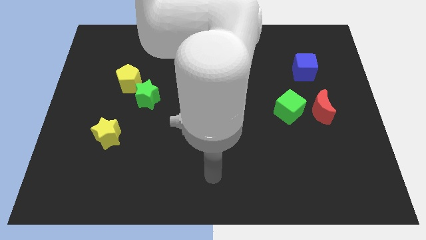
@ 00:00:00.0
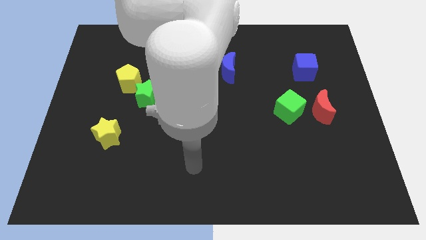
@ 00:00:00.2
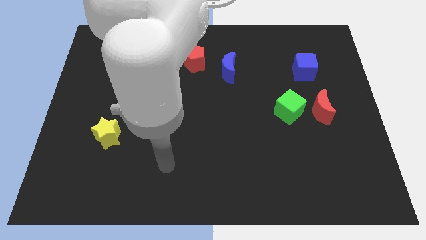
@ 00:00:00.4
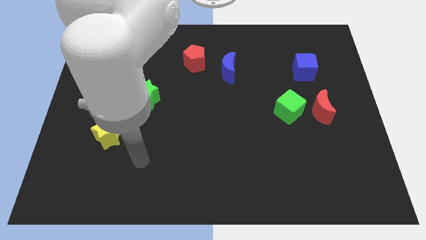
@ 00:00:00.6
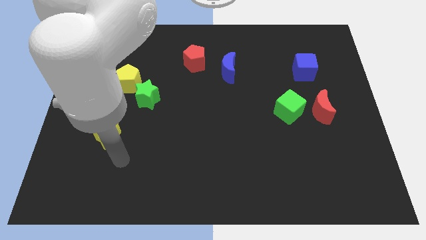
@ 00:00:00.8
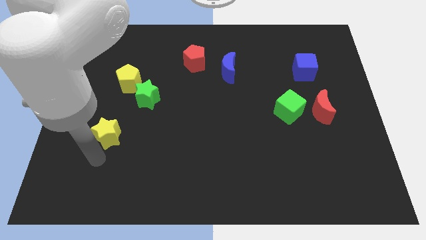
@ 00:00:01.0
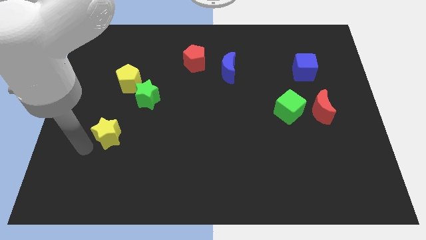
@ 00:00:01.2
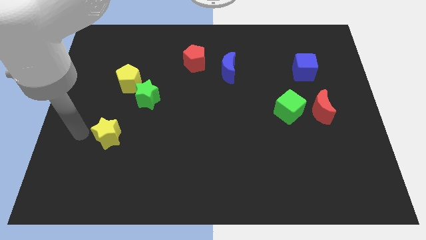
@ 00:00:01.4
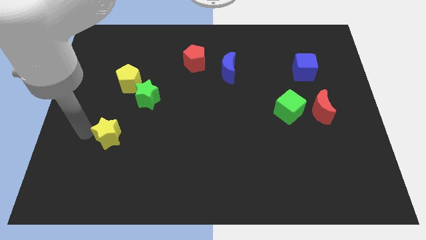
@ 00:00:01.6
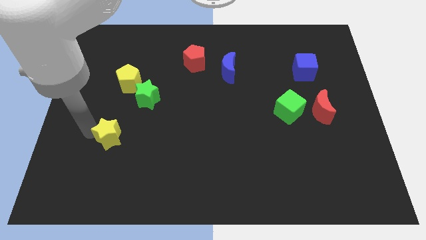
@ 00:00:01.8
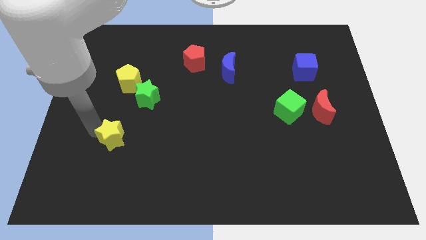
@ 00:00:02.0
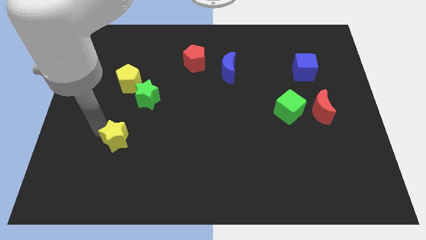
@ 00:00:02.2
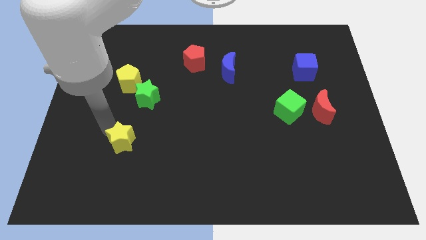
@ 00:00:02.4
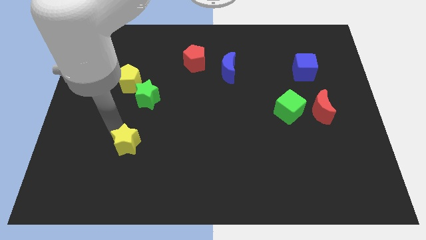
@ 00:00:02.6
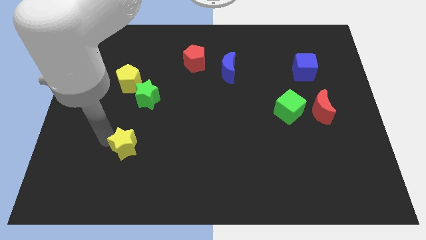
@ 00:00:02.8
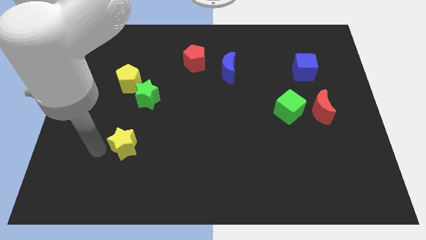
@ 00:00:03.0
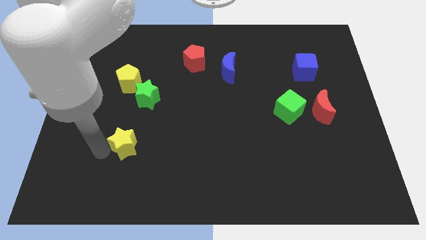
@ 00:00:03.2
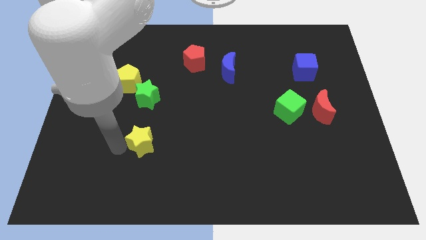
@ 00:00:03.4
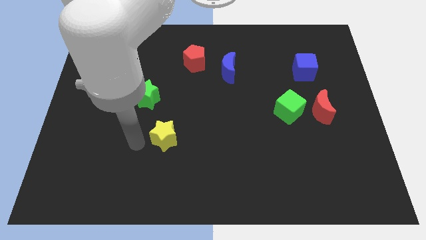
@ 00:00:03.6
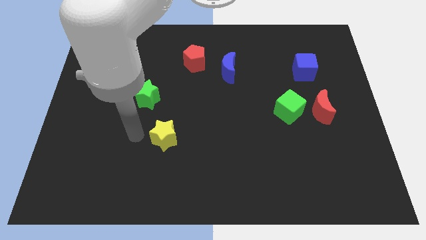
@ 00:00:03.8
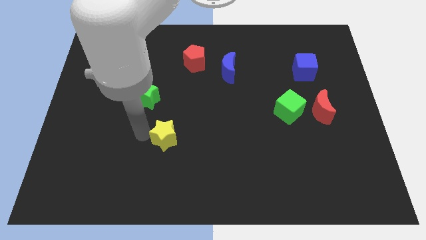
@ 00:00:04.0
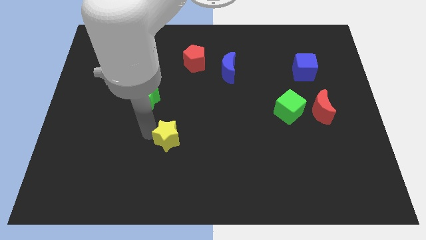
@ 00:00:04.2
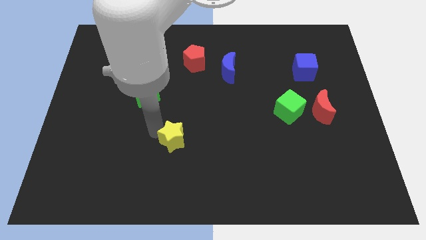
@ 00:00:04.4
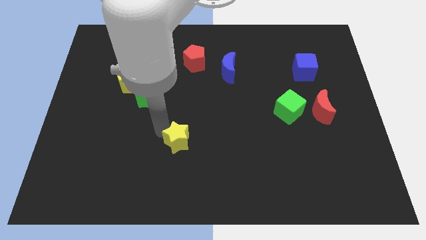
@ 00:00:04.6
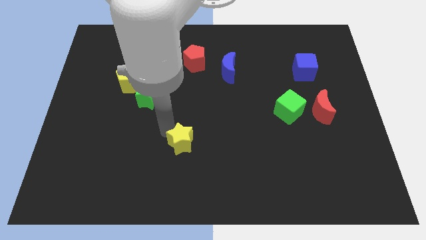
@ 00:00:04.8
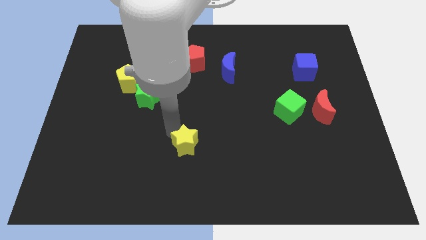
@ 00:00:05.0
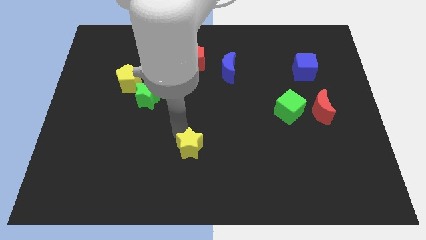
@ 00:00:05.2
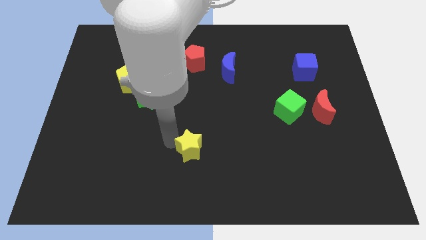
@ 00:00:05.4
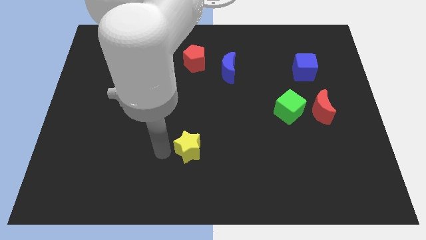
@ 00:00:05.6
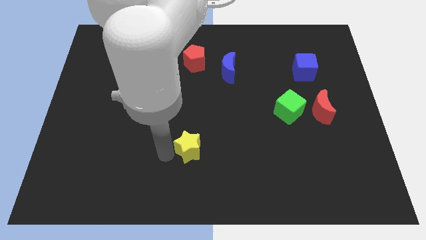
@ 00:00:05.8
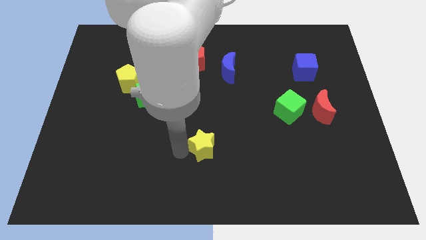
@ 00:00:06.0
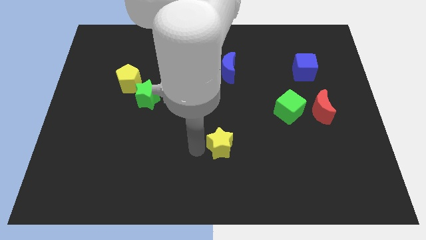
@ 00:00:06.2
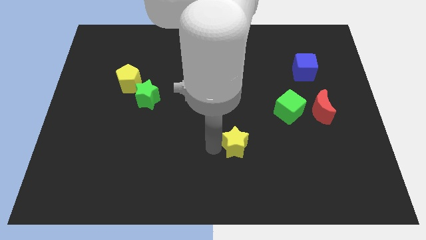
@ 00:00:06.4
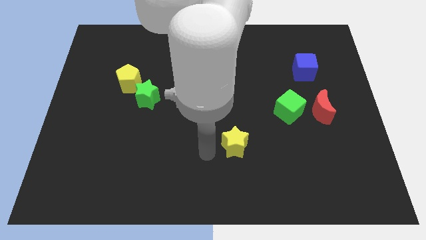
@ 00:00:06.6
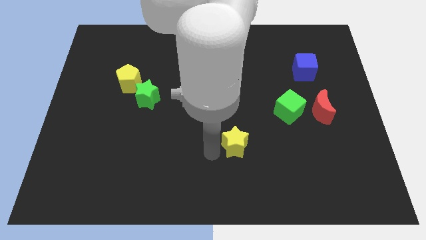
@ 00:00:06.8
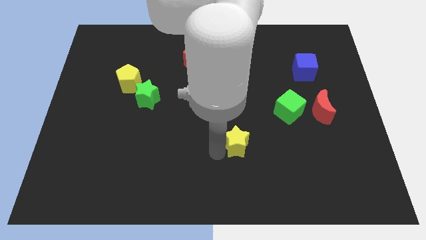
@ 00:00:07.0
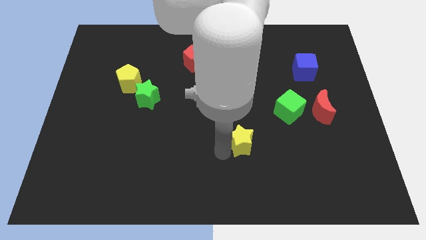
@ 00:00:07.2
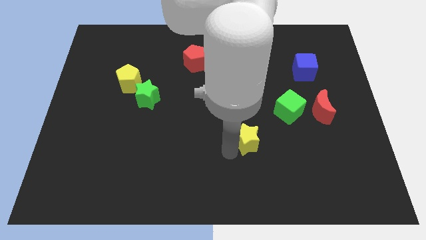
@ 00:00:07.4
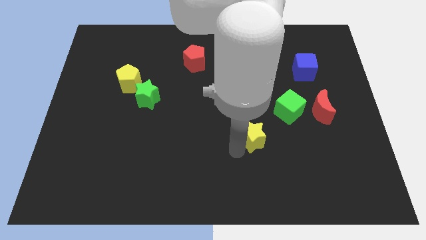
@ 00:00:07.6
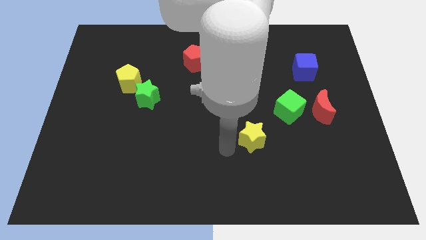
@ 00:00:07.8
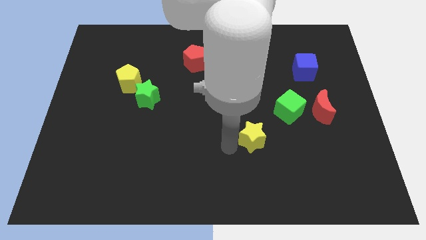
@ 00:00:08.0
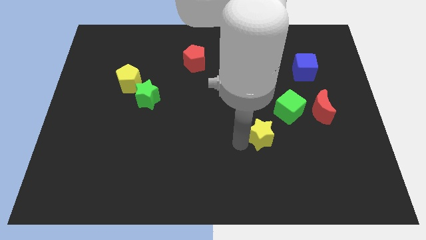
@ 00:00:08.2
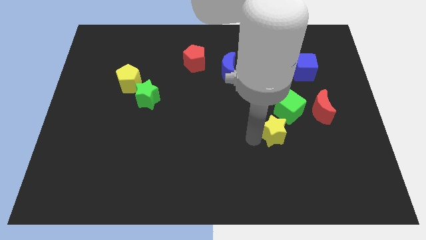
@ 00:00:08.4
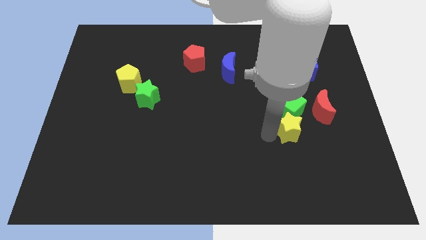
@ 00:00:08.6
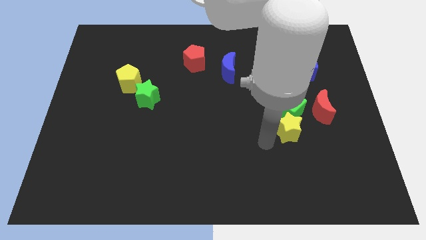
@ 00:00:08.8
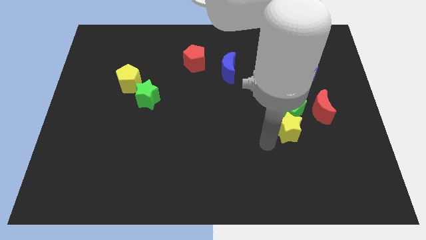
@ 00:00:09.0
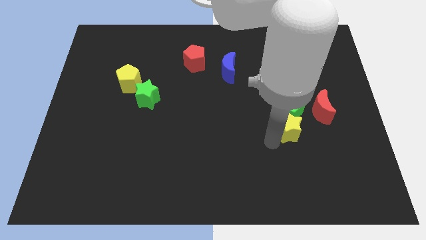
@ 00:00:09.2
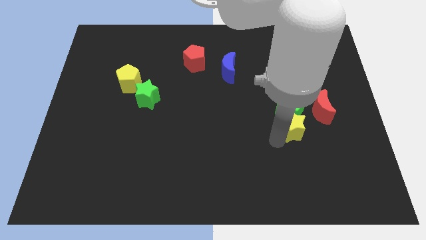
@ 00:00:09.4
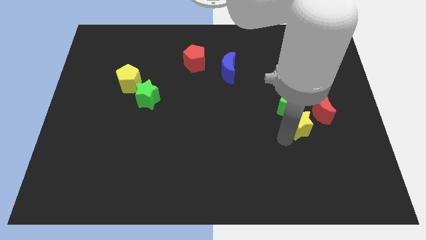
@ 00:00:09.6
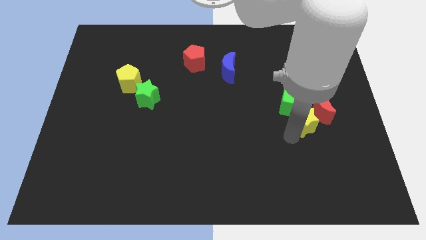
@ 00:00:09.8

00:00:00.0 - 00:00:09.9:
put the yellow star next to the red moon

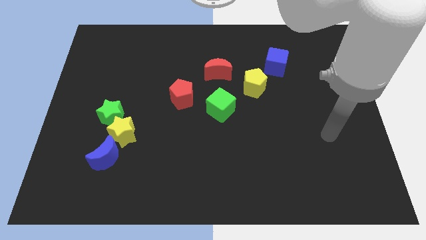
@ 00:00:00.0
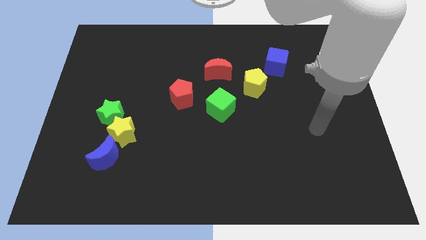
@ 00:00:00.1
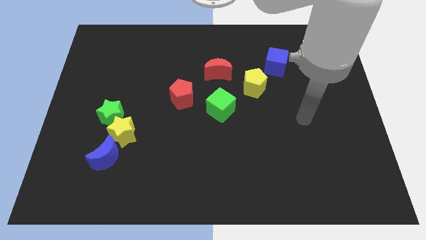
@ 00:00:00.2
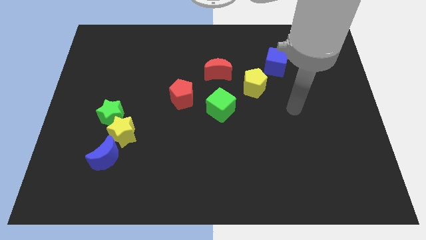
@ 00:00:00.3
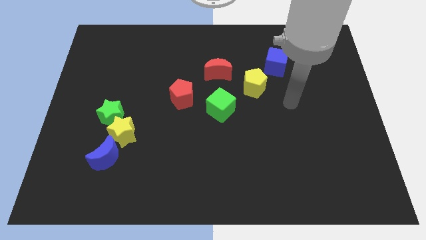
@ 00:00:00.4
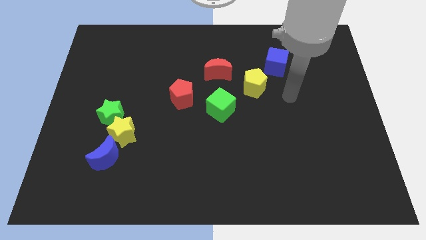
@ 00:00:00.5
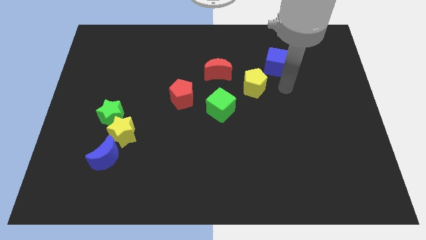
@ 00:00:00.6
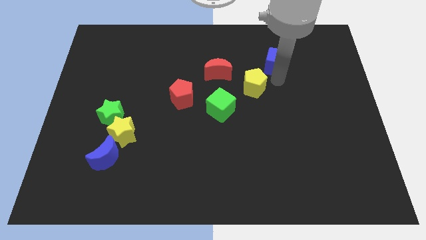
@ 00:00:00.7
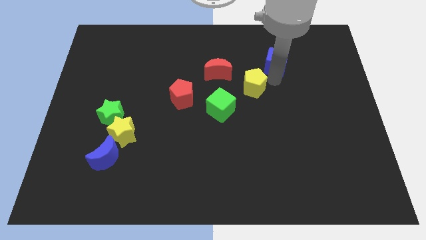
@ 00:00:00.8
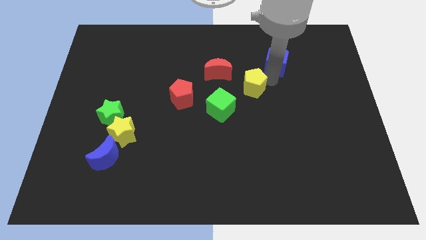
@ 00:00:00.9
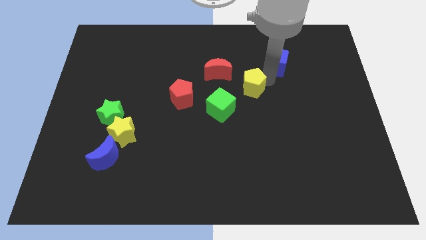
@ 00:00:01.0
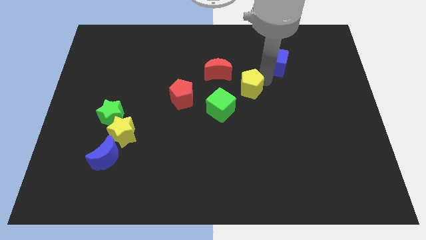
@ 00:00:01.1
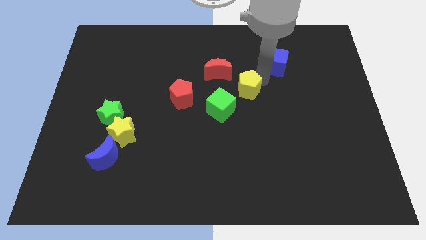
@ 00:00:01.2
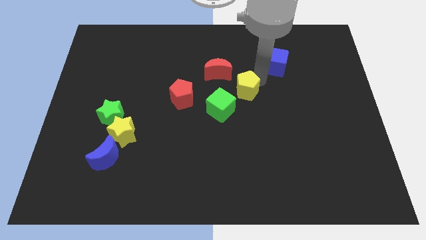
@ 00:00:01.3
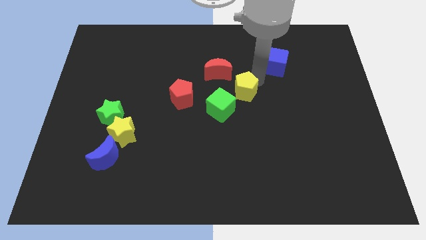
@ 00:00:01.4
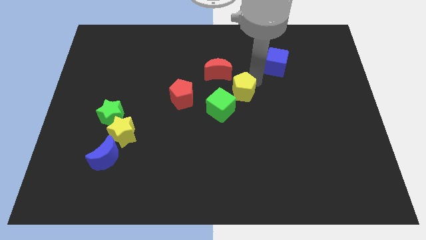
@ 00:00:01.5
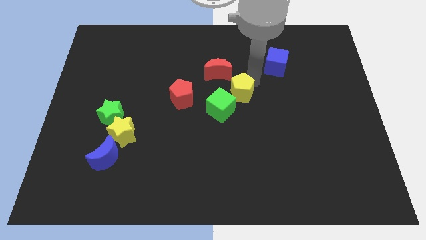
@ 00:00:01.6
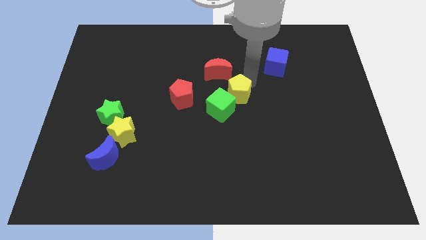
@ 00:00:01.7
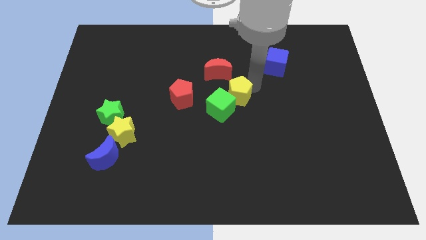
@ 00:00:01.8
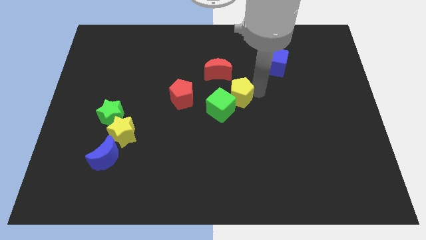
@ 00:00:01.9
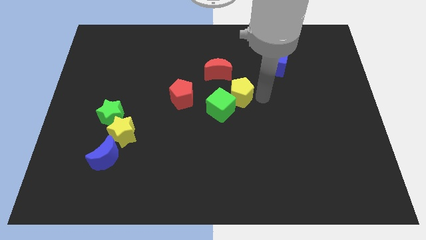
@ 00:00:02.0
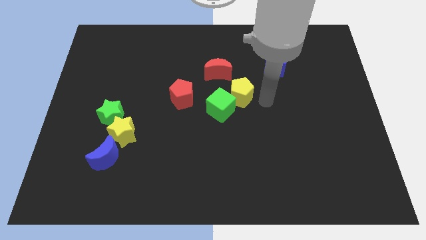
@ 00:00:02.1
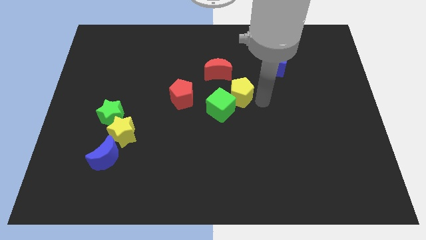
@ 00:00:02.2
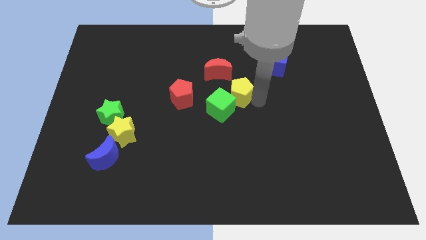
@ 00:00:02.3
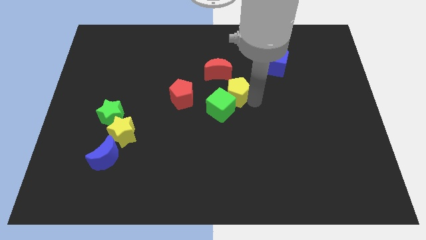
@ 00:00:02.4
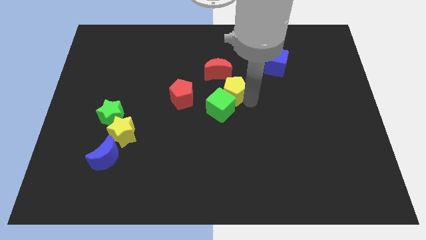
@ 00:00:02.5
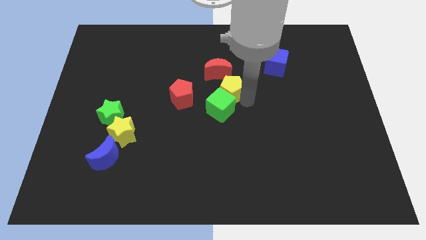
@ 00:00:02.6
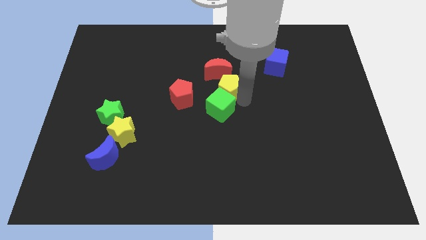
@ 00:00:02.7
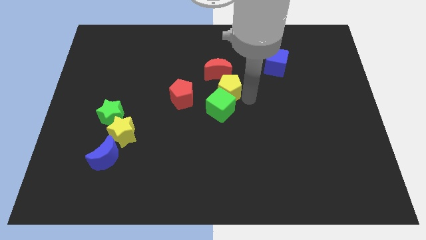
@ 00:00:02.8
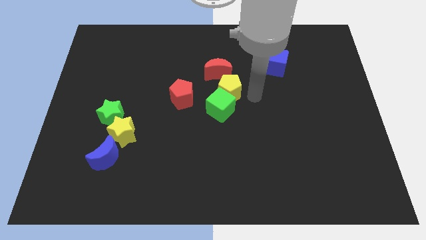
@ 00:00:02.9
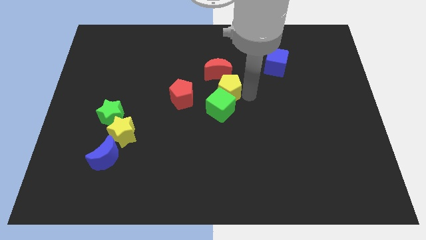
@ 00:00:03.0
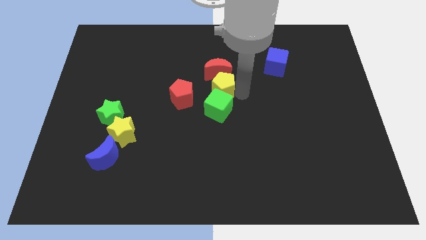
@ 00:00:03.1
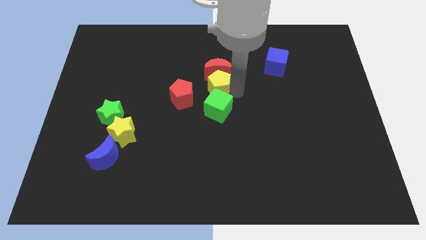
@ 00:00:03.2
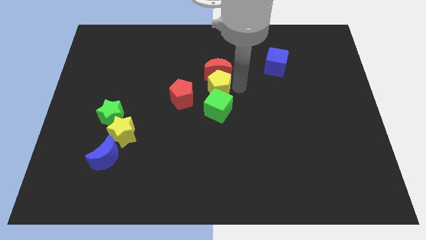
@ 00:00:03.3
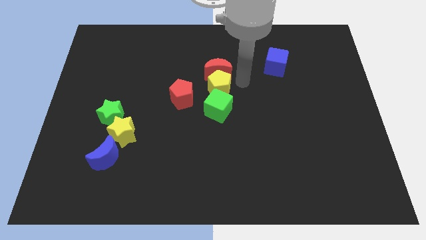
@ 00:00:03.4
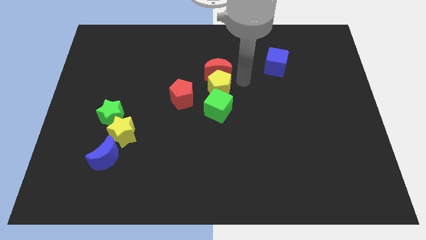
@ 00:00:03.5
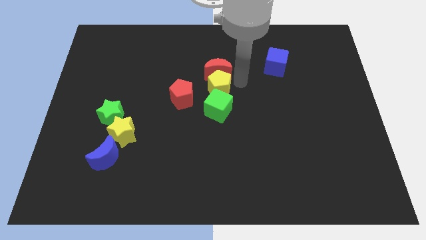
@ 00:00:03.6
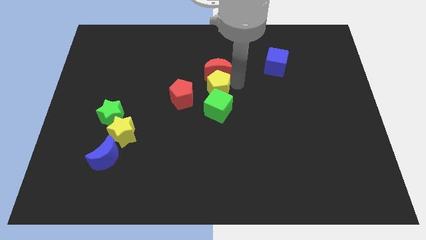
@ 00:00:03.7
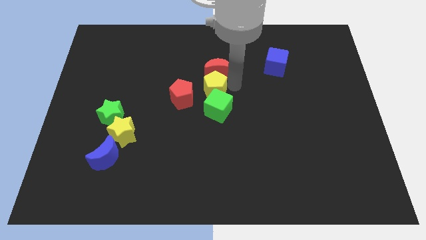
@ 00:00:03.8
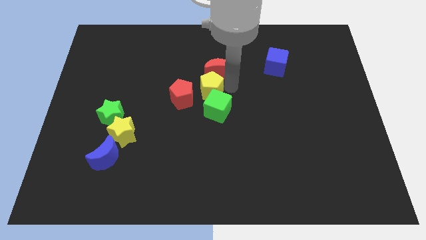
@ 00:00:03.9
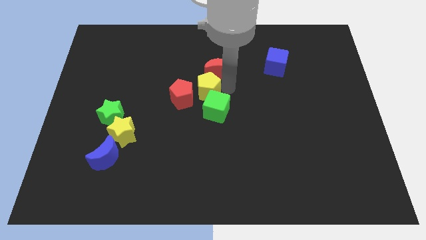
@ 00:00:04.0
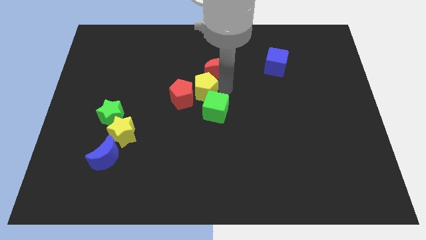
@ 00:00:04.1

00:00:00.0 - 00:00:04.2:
move the yellow pentagon close to the red pentagon
